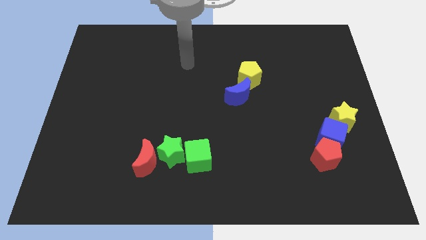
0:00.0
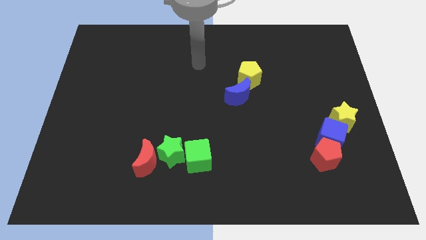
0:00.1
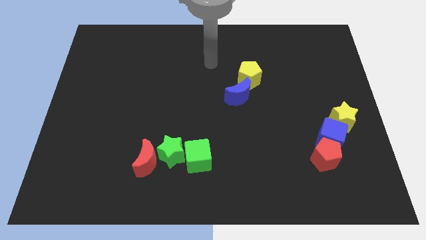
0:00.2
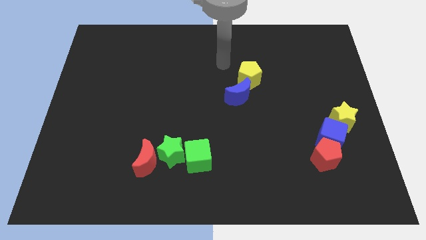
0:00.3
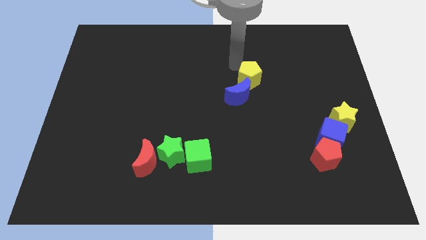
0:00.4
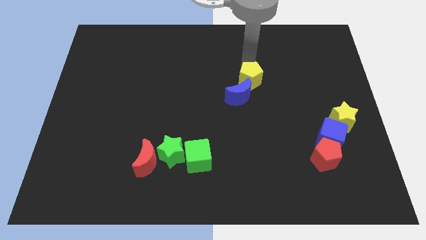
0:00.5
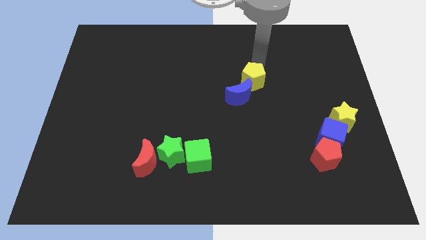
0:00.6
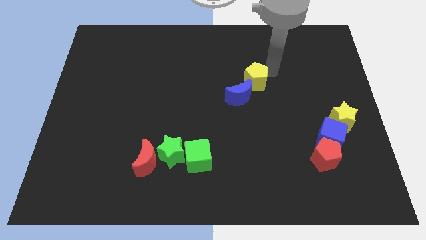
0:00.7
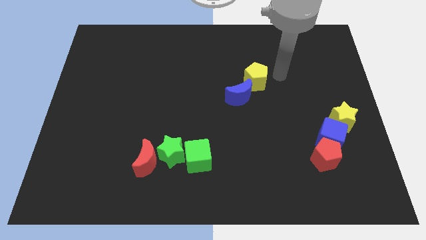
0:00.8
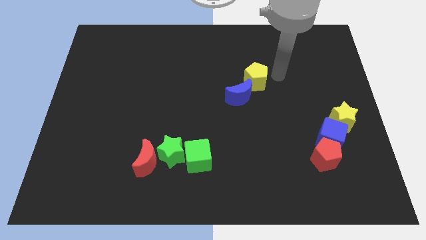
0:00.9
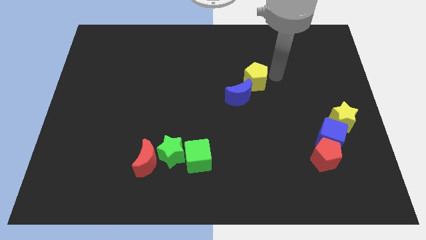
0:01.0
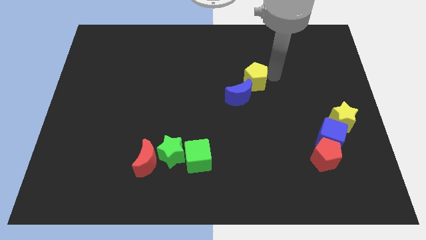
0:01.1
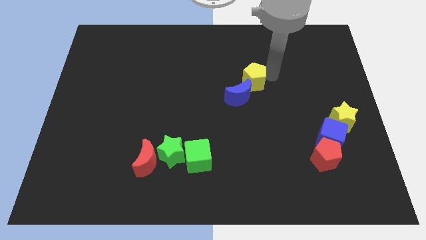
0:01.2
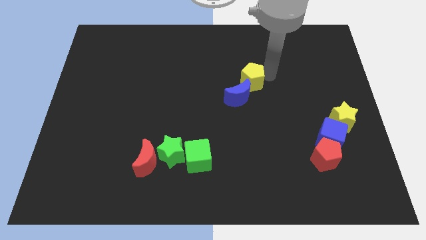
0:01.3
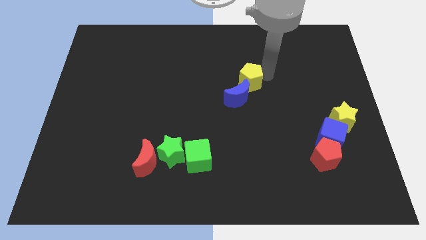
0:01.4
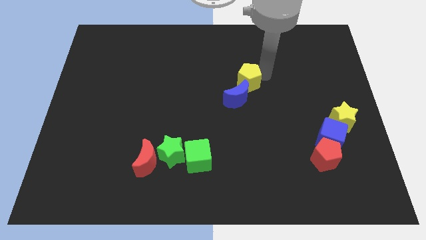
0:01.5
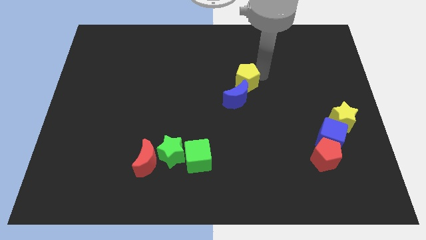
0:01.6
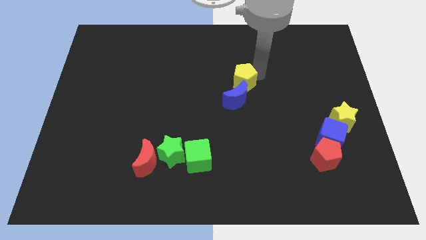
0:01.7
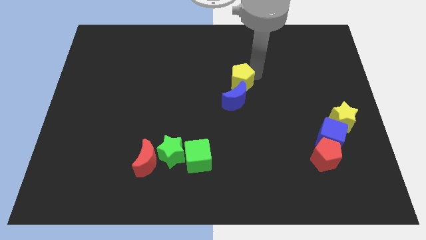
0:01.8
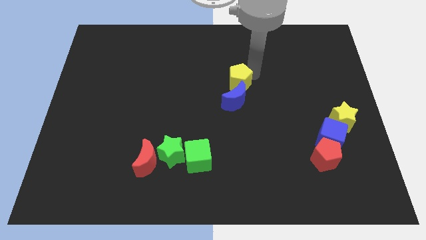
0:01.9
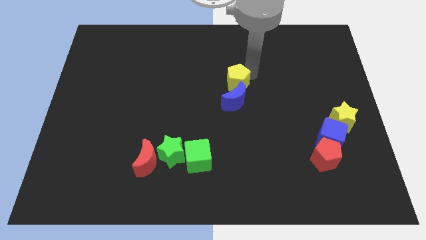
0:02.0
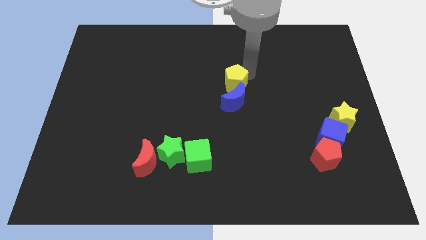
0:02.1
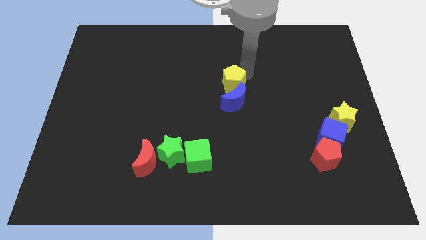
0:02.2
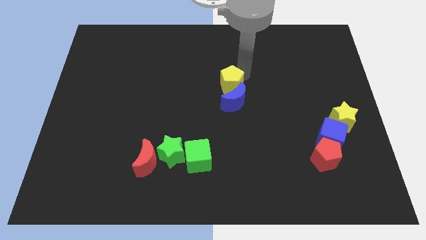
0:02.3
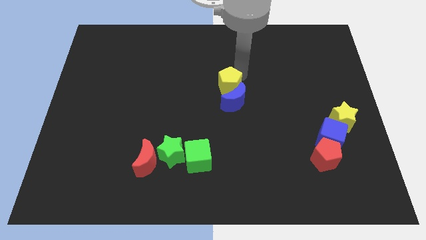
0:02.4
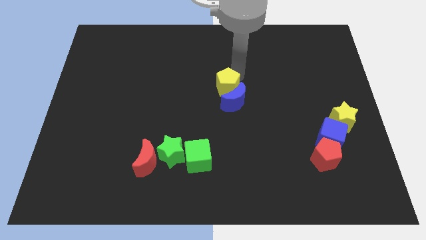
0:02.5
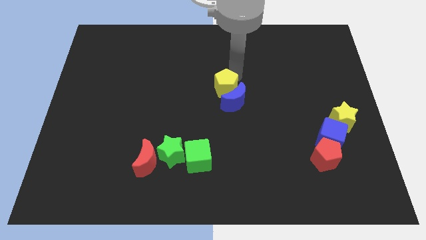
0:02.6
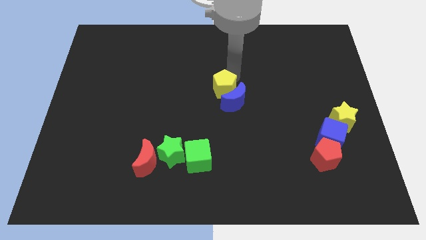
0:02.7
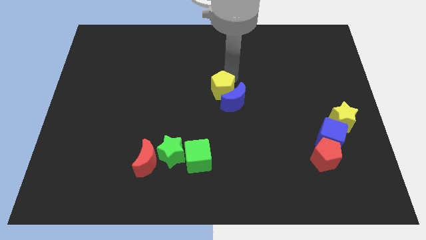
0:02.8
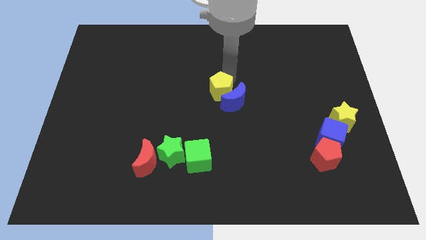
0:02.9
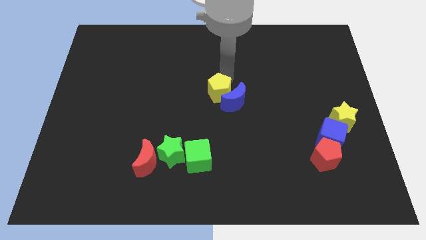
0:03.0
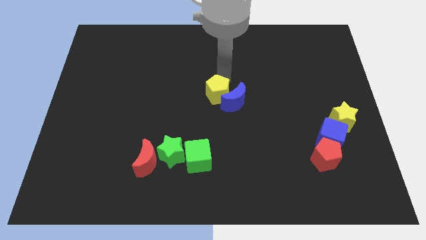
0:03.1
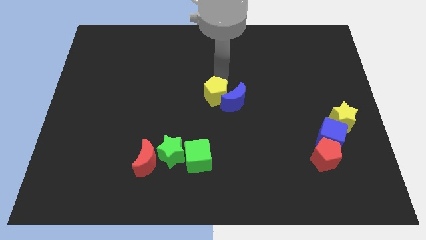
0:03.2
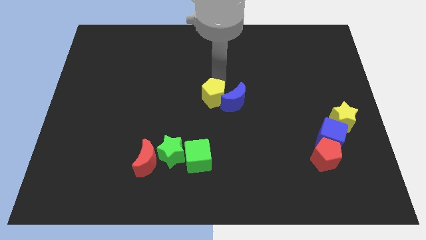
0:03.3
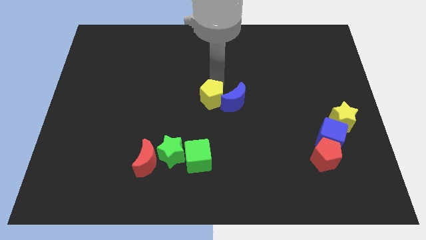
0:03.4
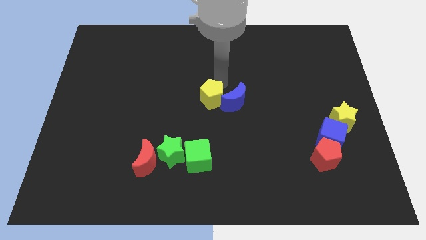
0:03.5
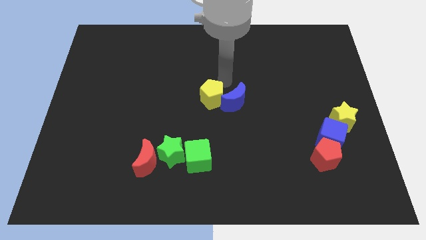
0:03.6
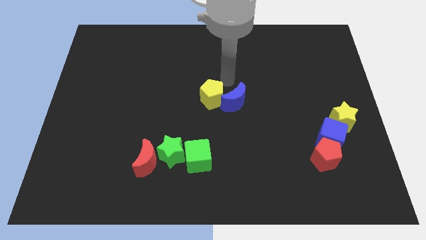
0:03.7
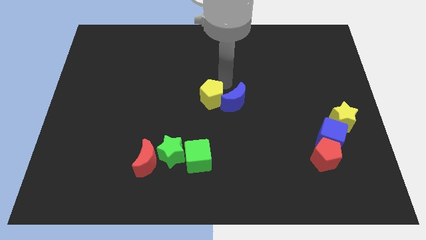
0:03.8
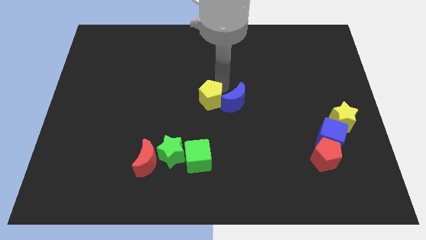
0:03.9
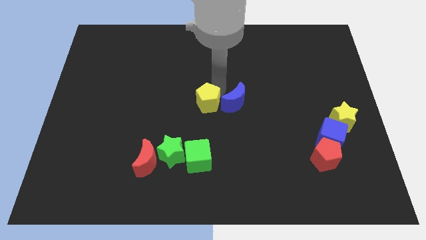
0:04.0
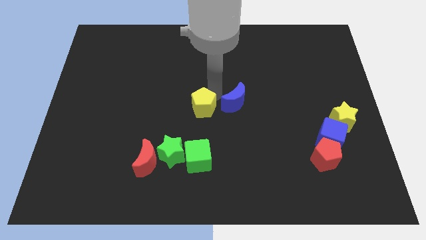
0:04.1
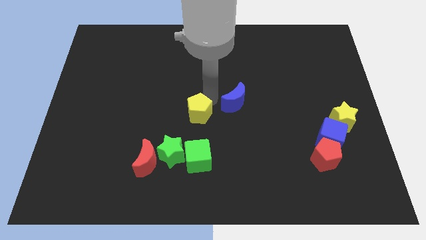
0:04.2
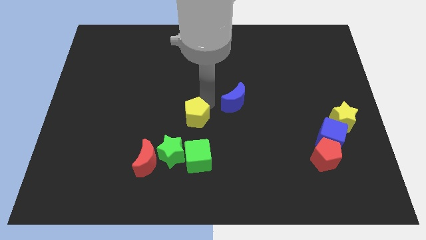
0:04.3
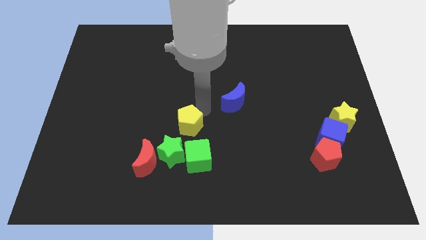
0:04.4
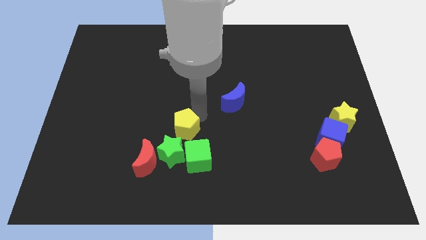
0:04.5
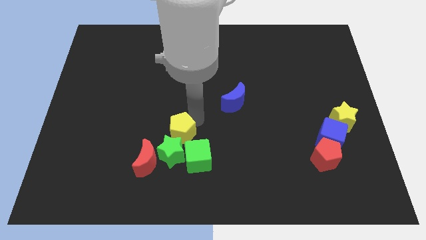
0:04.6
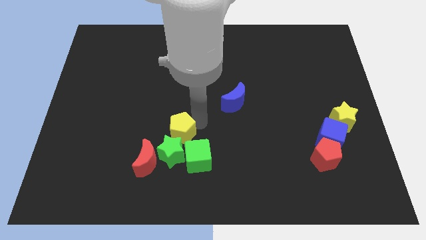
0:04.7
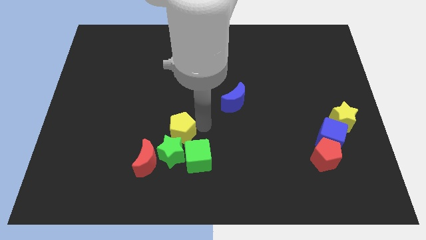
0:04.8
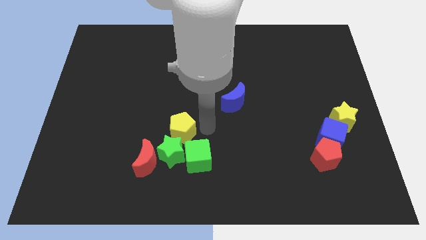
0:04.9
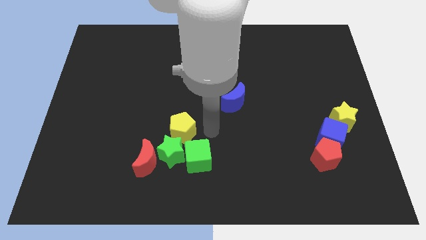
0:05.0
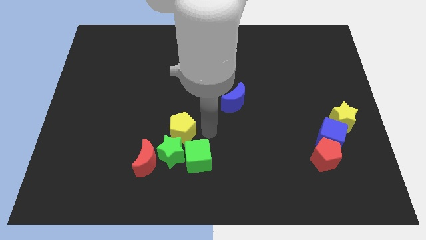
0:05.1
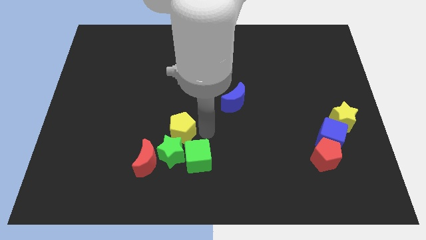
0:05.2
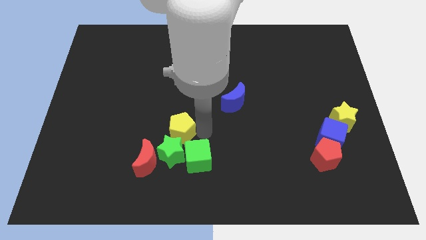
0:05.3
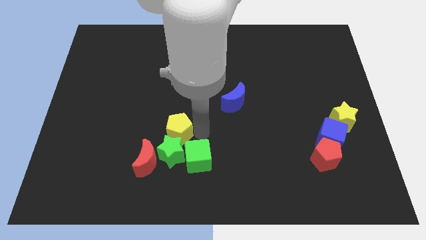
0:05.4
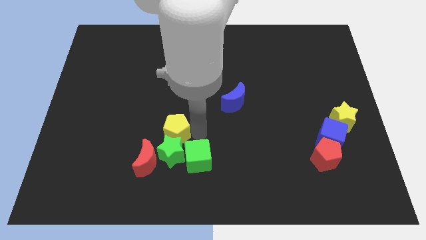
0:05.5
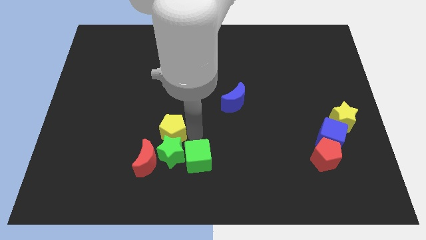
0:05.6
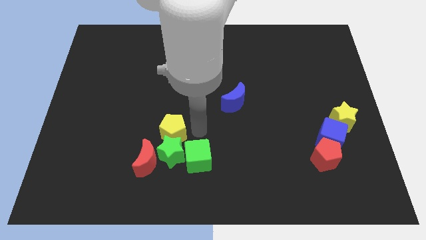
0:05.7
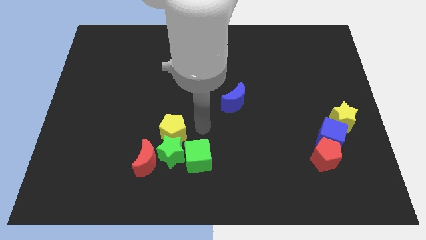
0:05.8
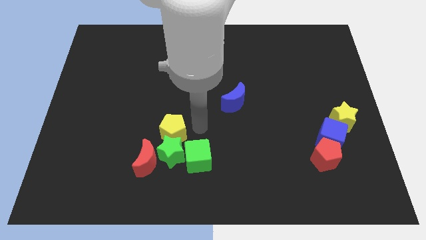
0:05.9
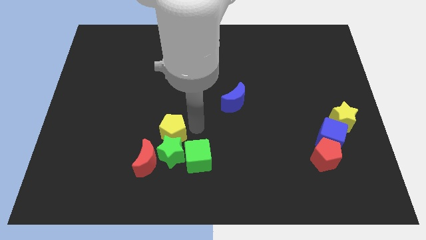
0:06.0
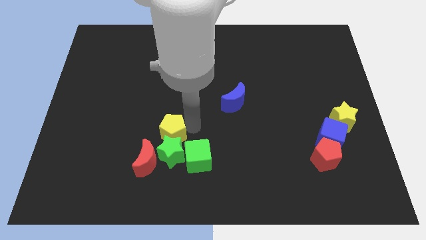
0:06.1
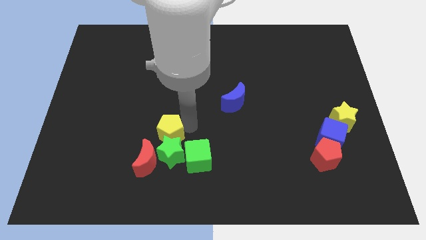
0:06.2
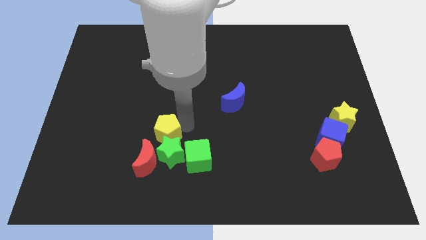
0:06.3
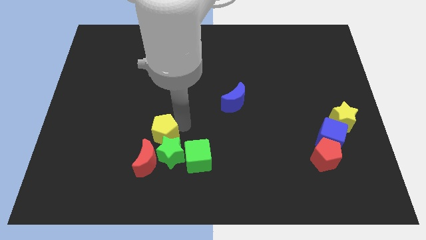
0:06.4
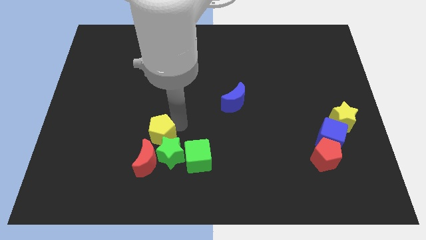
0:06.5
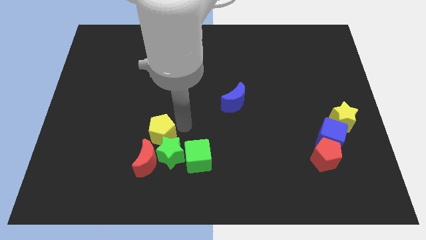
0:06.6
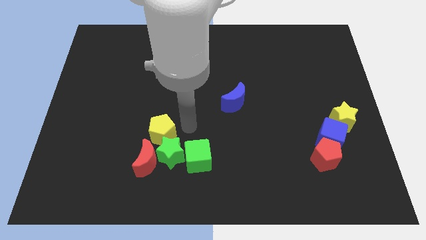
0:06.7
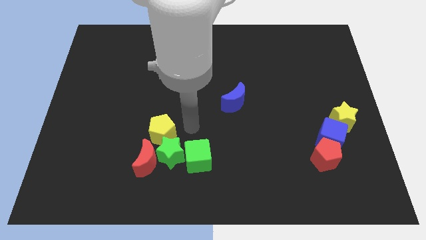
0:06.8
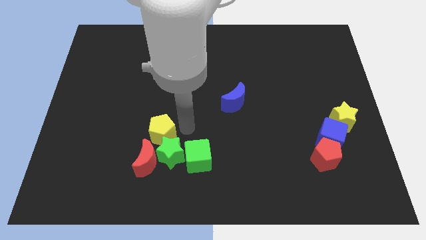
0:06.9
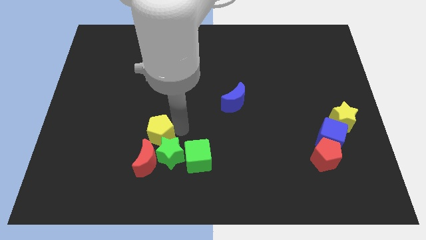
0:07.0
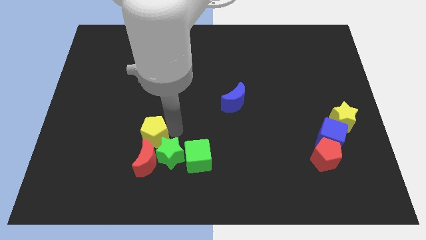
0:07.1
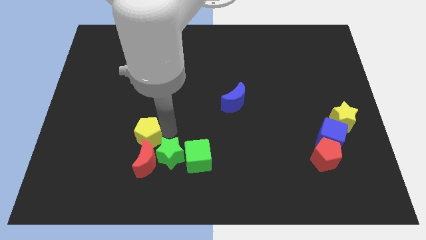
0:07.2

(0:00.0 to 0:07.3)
slide the yellow pentagon to the top left side of the red moon
